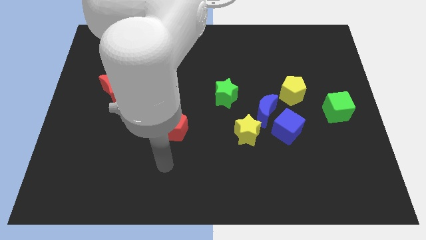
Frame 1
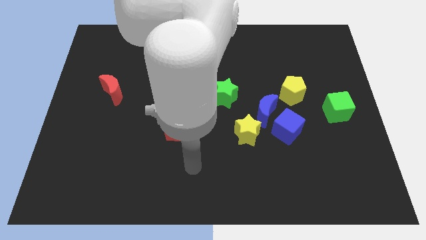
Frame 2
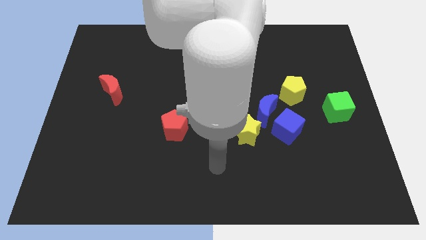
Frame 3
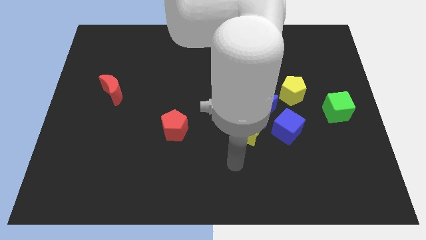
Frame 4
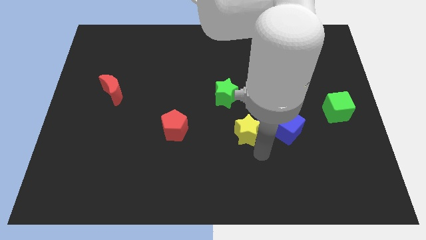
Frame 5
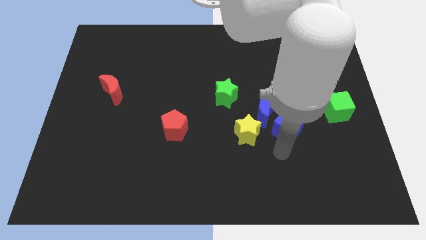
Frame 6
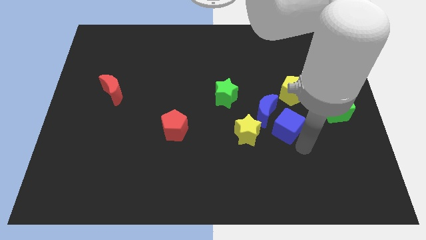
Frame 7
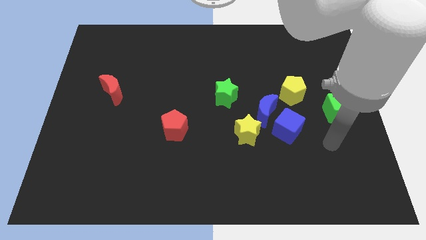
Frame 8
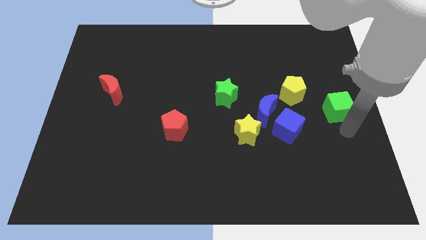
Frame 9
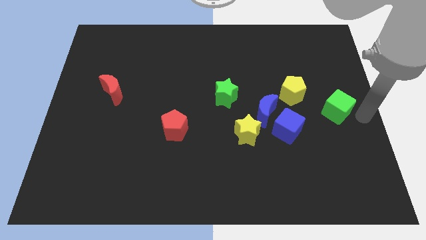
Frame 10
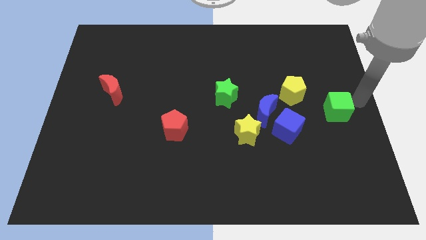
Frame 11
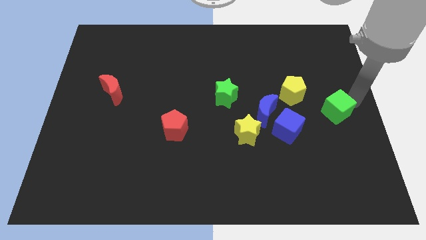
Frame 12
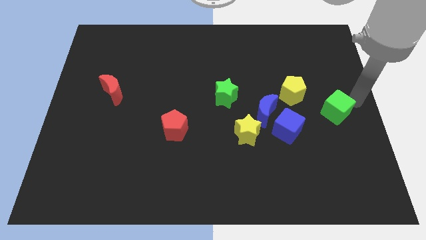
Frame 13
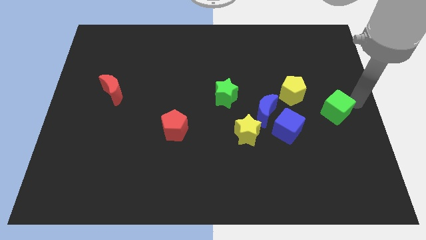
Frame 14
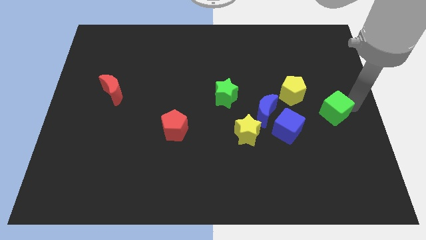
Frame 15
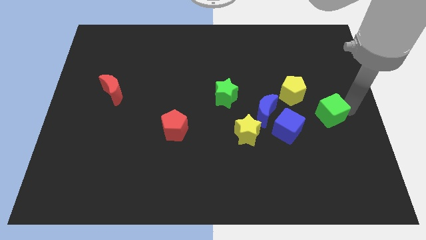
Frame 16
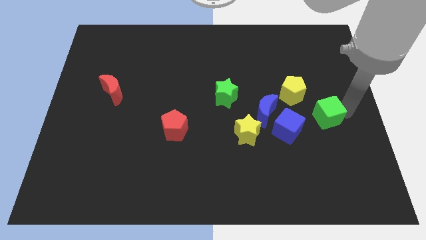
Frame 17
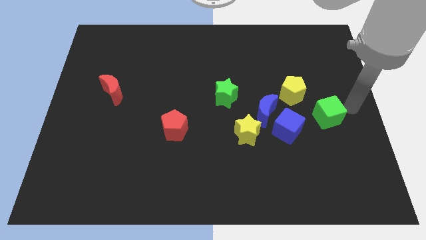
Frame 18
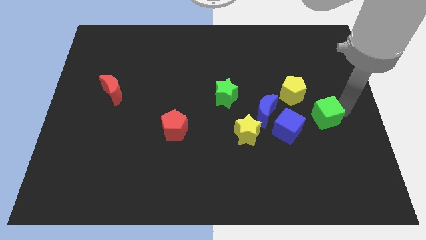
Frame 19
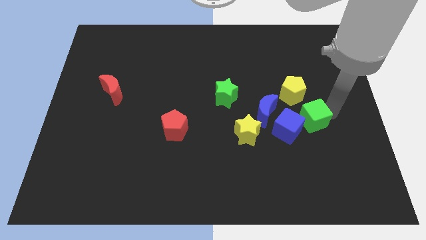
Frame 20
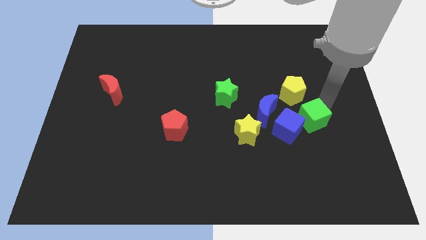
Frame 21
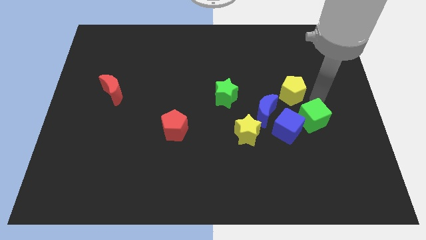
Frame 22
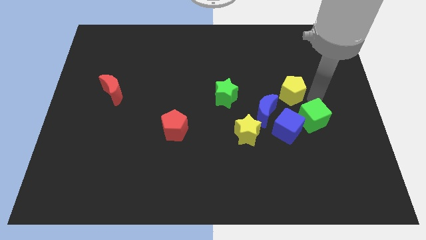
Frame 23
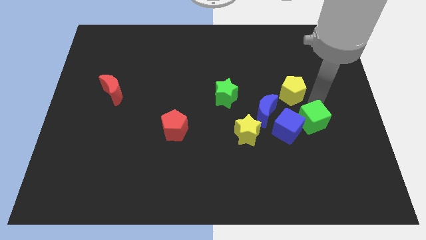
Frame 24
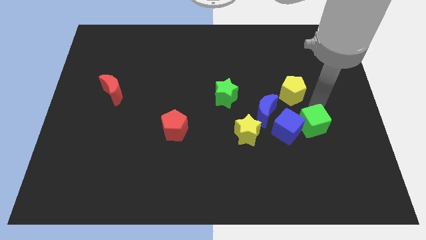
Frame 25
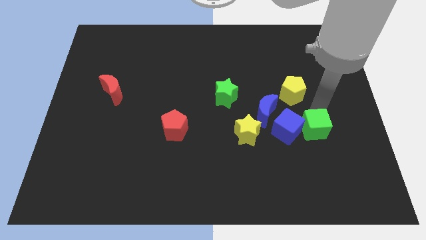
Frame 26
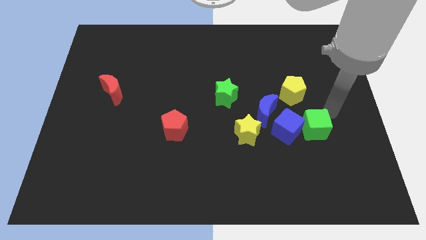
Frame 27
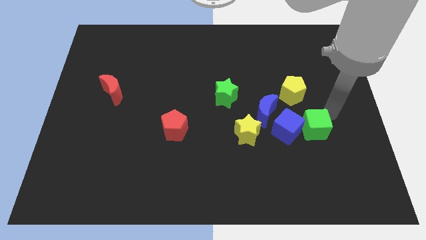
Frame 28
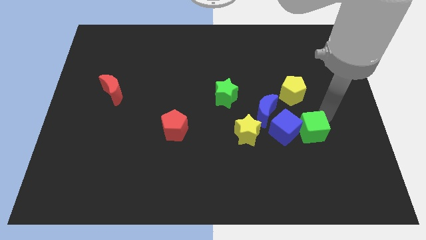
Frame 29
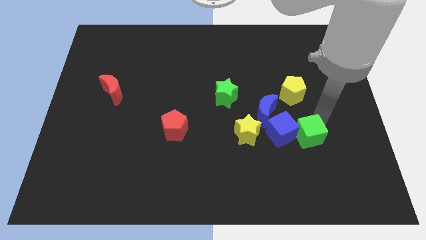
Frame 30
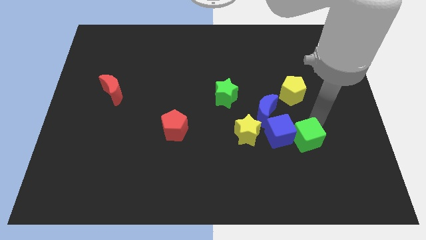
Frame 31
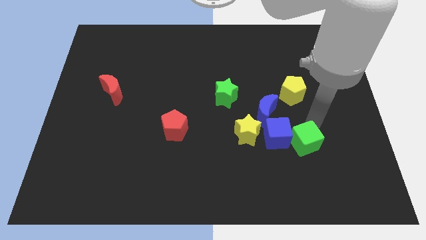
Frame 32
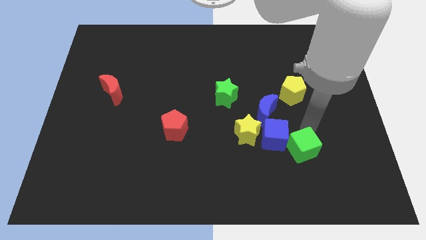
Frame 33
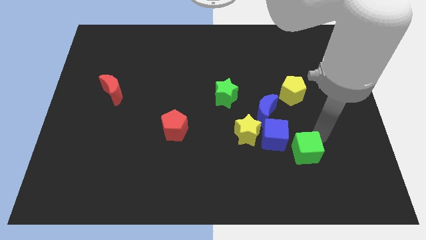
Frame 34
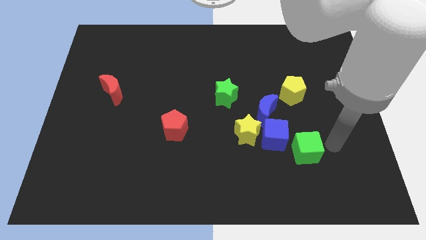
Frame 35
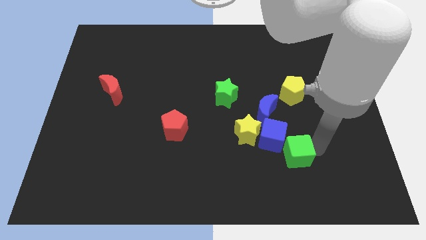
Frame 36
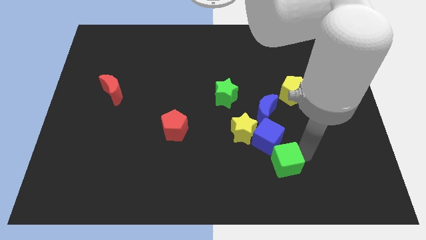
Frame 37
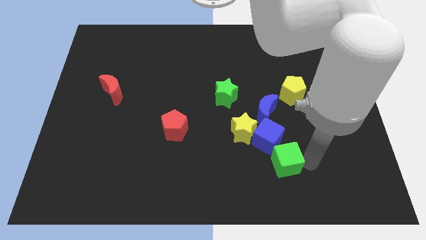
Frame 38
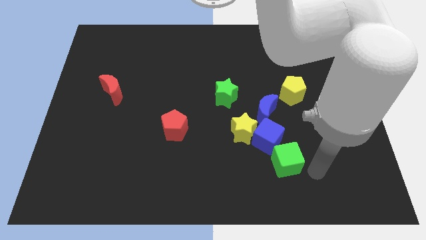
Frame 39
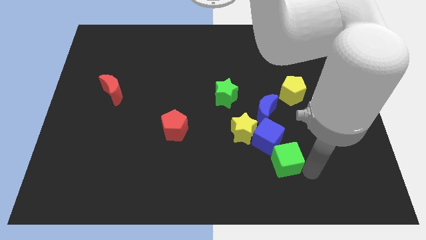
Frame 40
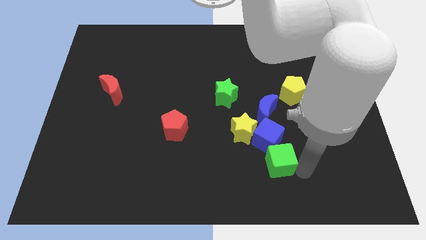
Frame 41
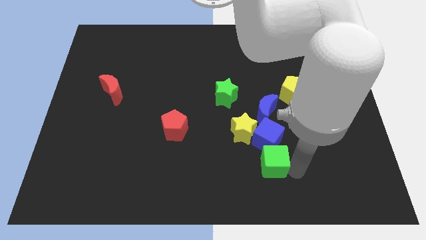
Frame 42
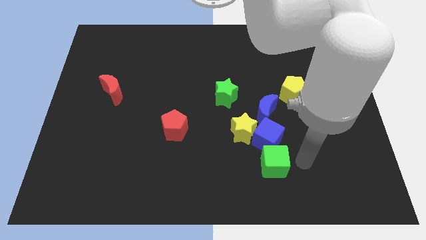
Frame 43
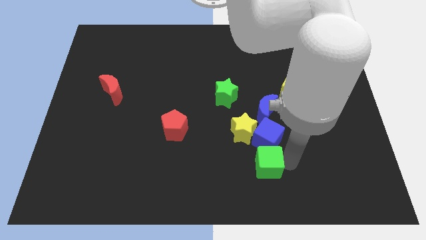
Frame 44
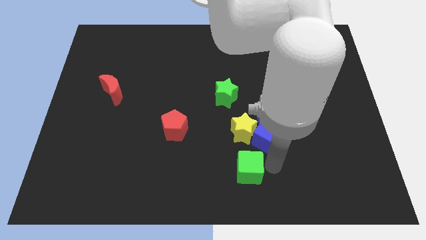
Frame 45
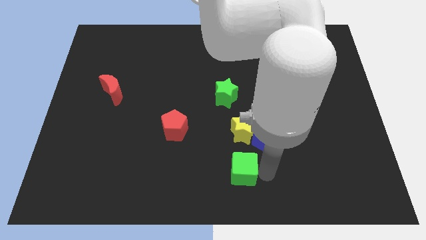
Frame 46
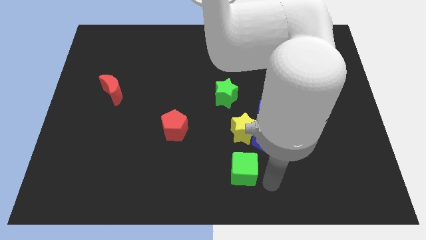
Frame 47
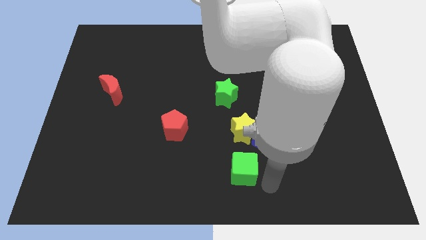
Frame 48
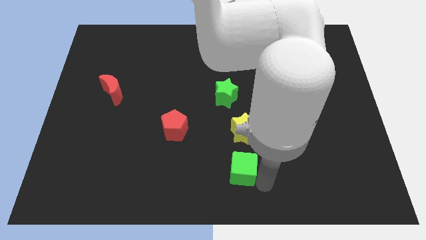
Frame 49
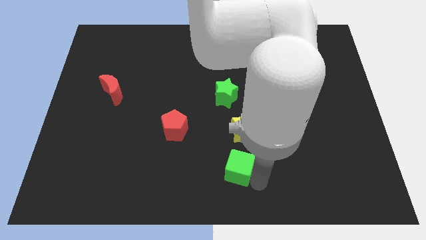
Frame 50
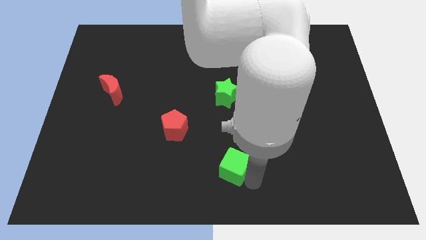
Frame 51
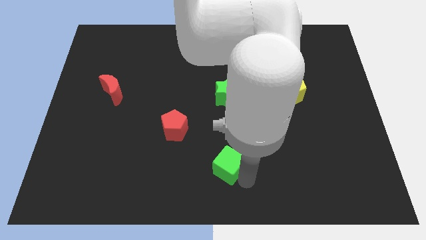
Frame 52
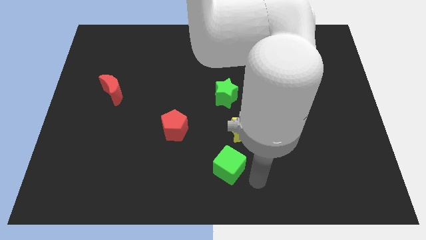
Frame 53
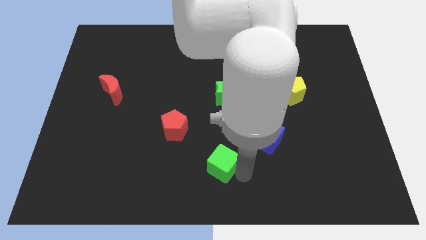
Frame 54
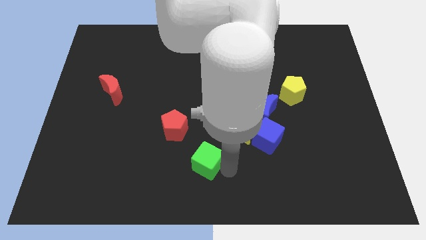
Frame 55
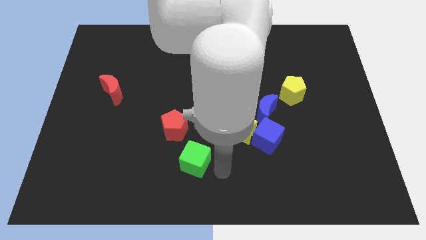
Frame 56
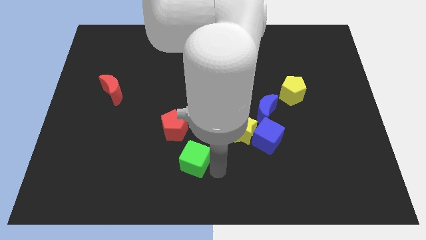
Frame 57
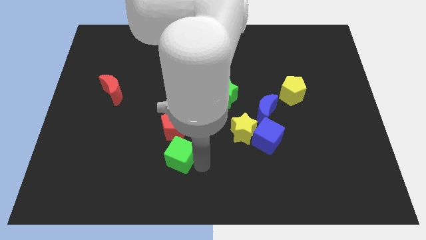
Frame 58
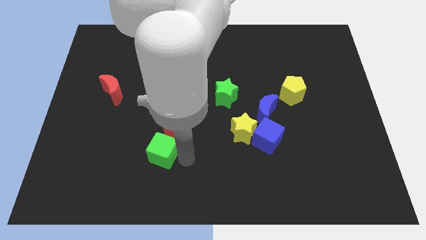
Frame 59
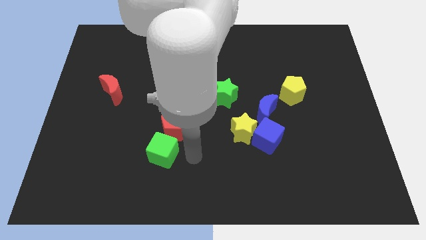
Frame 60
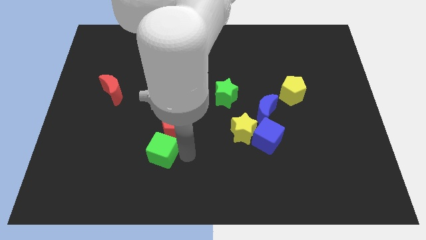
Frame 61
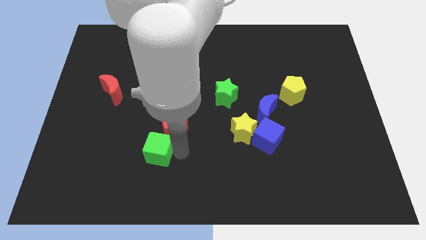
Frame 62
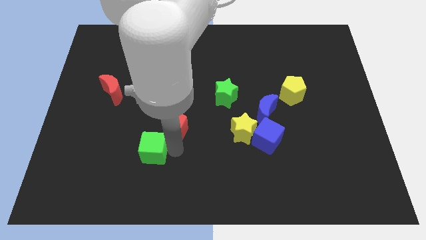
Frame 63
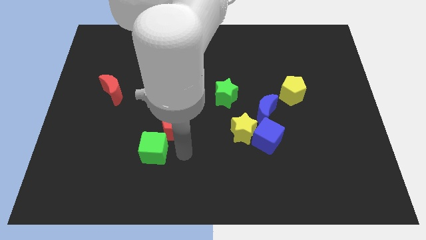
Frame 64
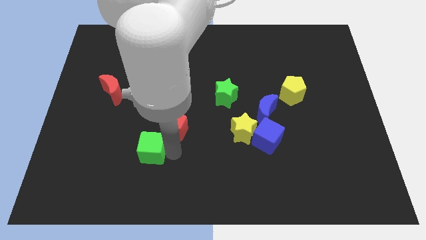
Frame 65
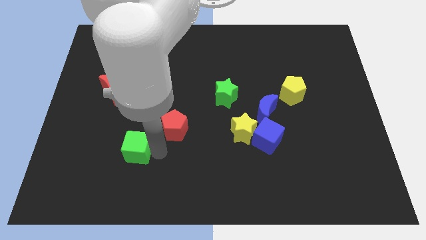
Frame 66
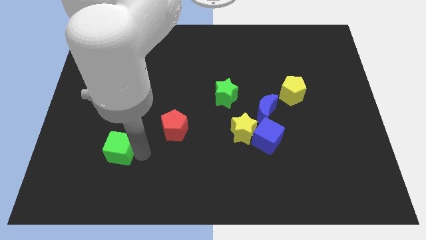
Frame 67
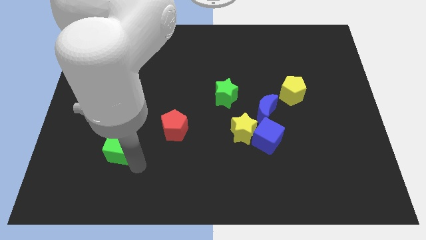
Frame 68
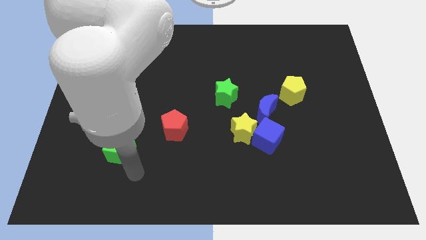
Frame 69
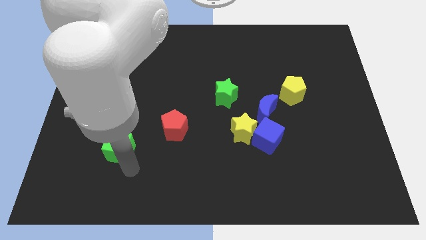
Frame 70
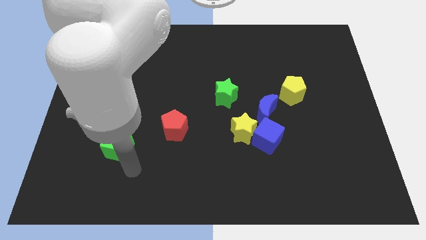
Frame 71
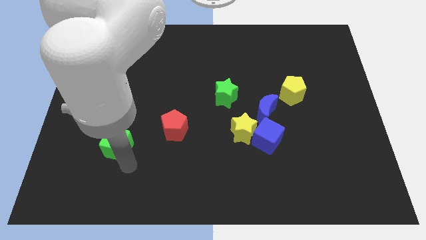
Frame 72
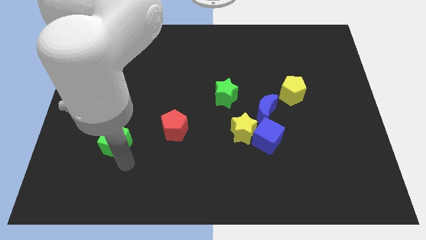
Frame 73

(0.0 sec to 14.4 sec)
put the green cube below the red moon

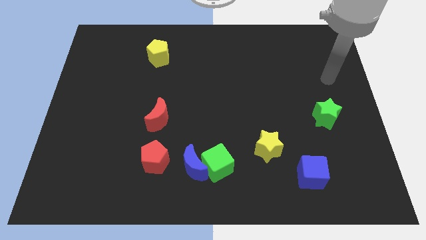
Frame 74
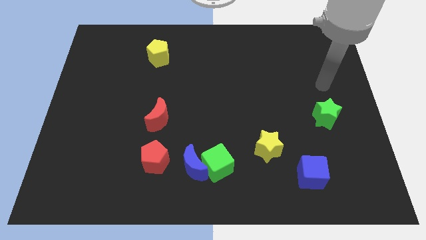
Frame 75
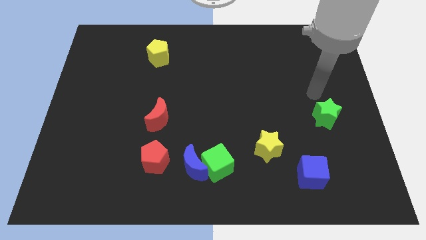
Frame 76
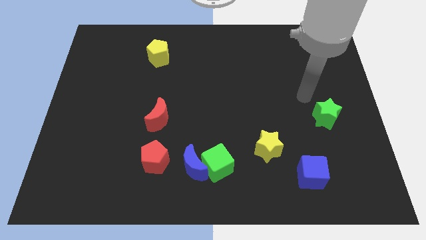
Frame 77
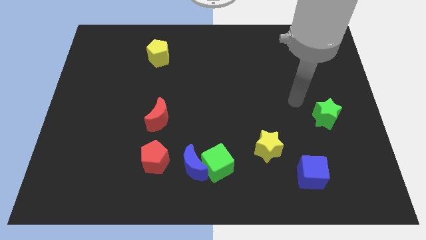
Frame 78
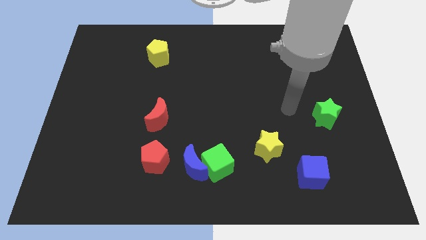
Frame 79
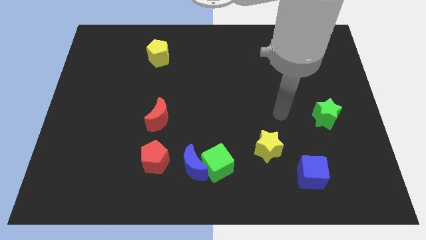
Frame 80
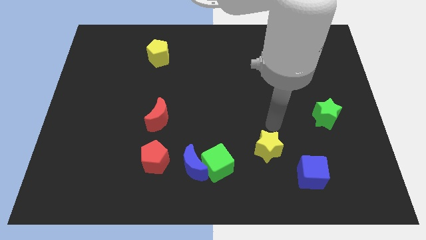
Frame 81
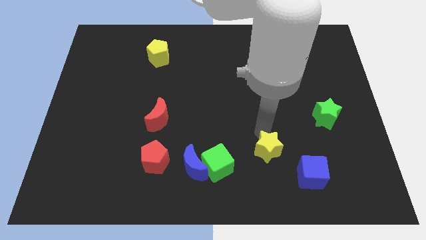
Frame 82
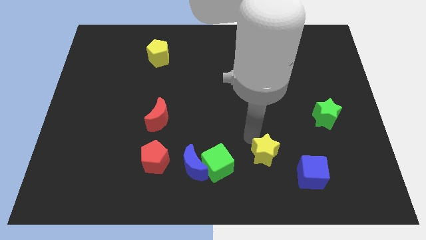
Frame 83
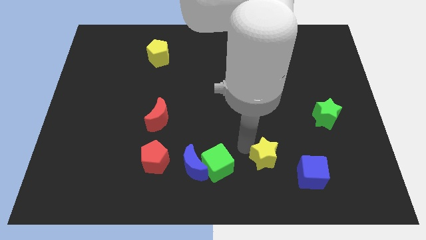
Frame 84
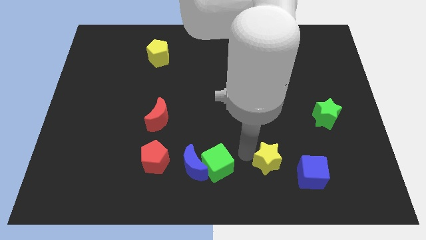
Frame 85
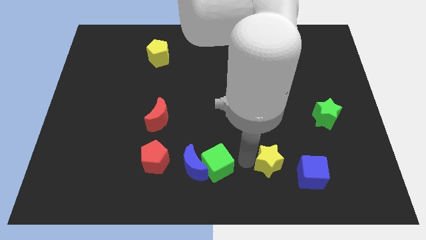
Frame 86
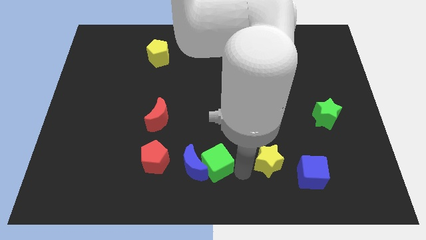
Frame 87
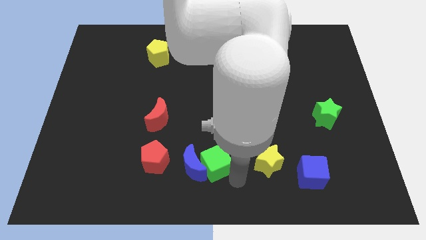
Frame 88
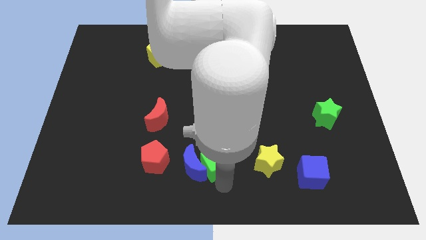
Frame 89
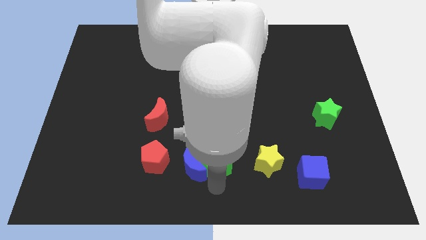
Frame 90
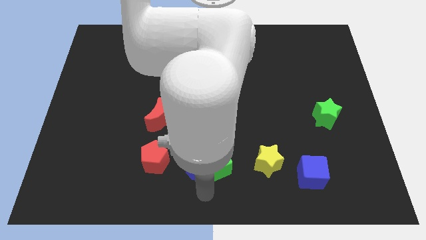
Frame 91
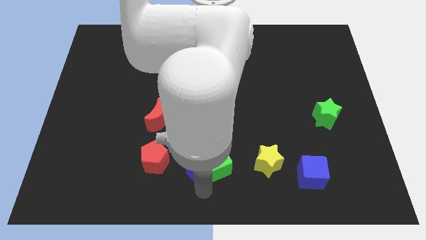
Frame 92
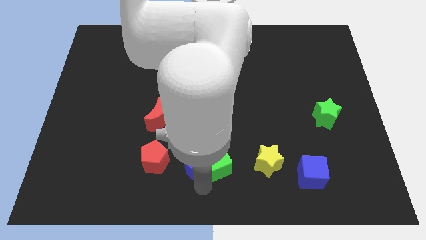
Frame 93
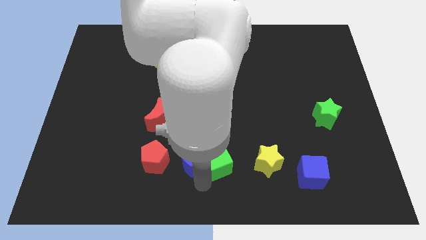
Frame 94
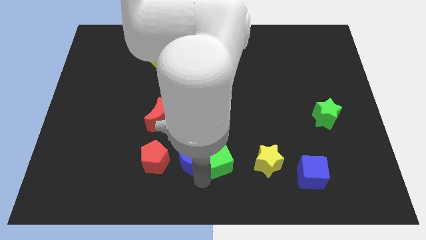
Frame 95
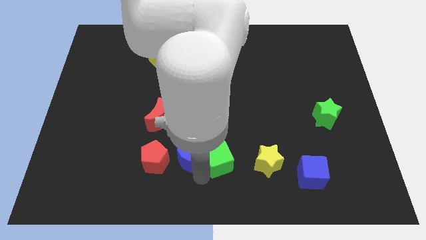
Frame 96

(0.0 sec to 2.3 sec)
put the blue moon to the top right of the red pentagon
